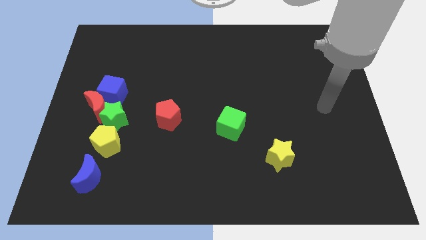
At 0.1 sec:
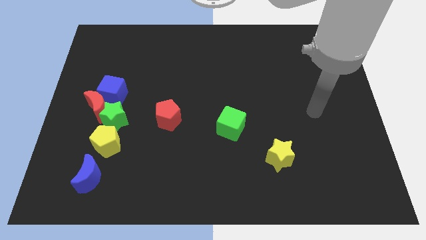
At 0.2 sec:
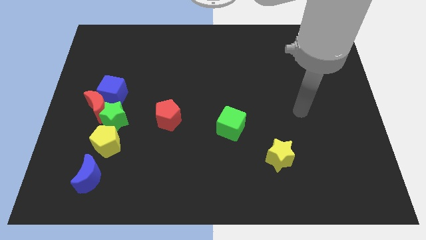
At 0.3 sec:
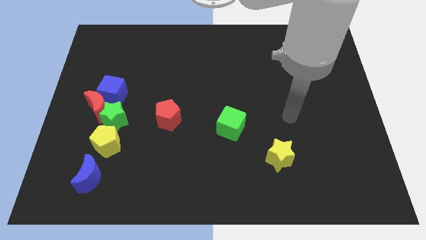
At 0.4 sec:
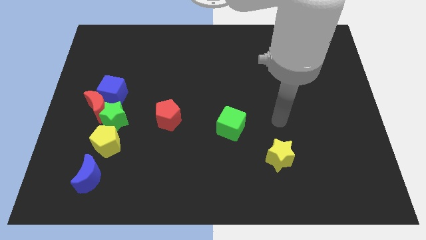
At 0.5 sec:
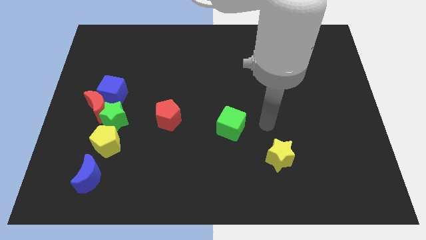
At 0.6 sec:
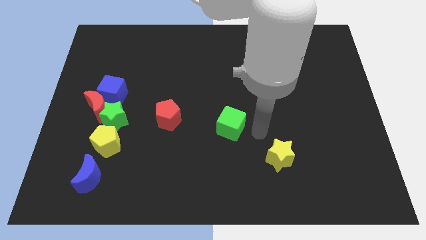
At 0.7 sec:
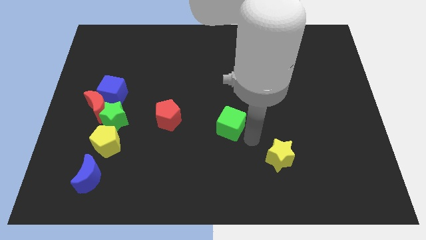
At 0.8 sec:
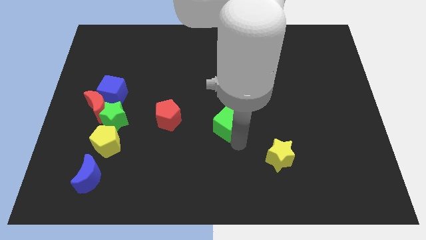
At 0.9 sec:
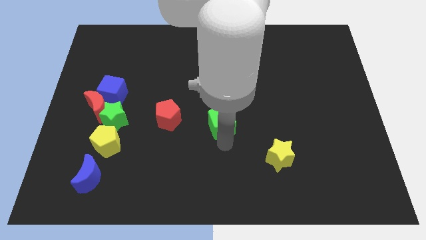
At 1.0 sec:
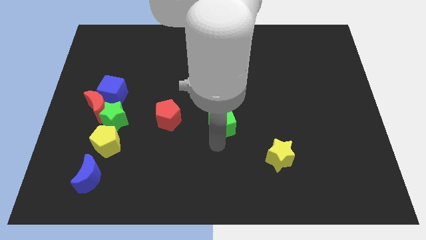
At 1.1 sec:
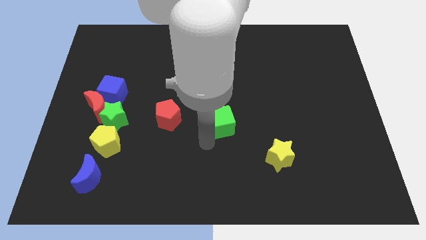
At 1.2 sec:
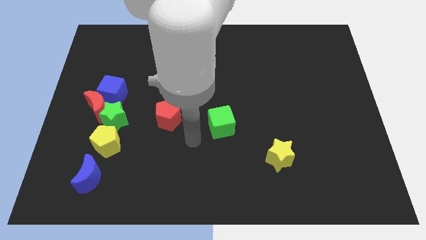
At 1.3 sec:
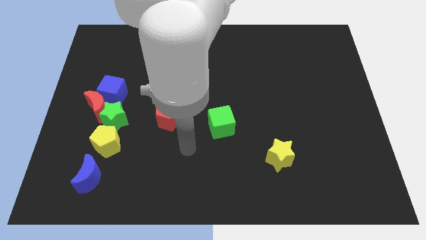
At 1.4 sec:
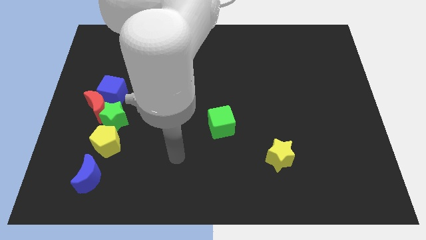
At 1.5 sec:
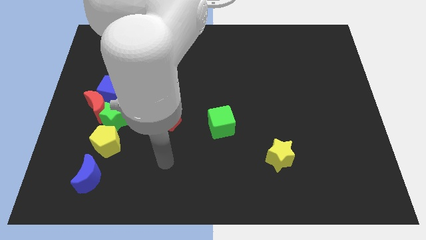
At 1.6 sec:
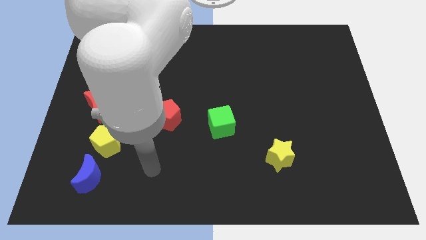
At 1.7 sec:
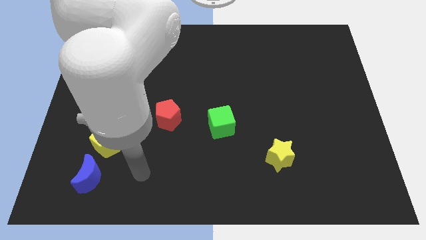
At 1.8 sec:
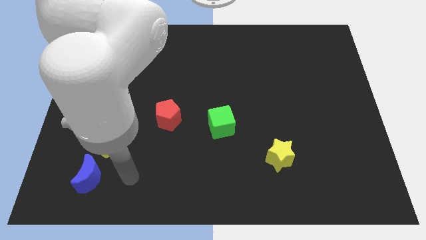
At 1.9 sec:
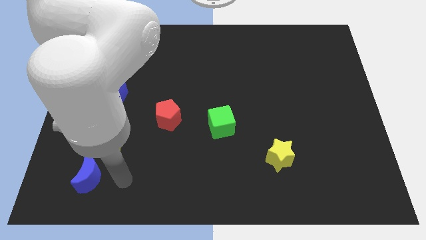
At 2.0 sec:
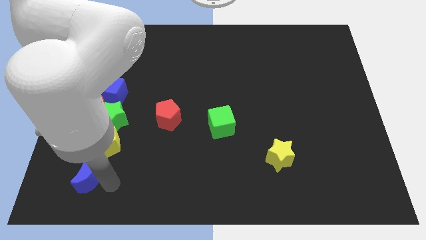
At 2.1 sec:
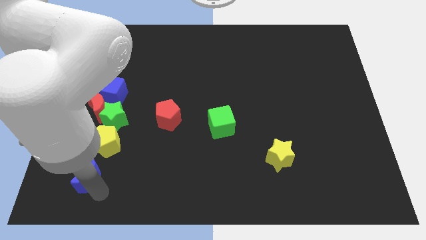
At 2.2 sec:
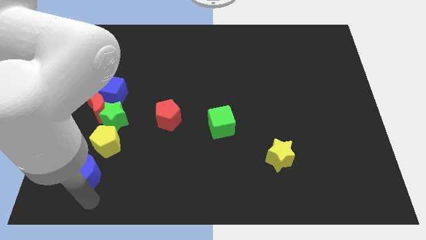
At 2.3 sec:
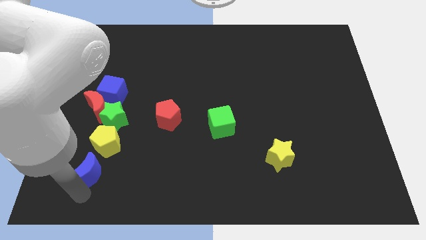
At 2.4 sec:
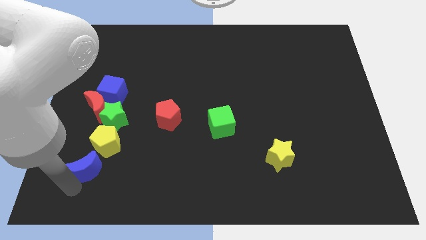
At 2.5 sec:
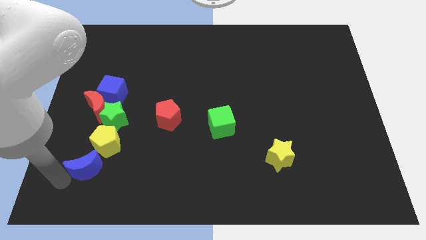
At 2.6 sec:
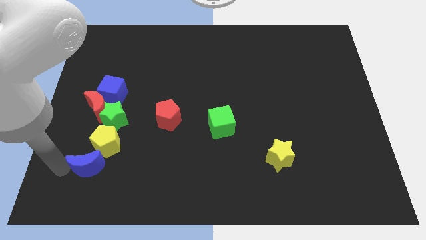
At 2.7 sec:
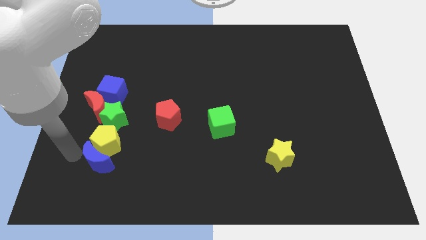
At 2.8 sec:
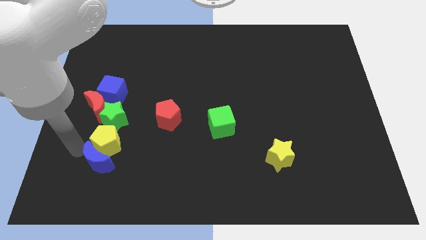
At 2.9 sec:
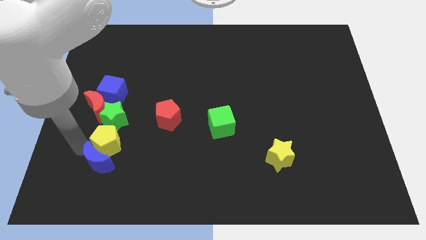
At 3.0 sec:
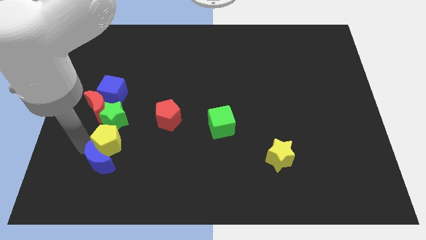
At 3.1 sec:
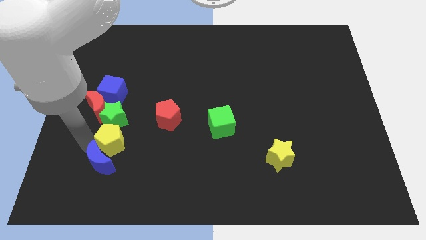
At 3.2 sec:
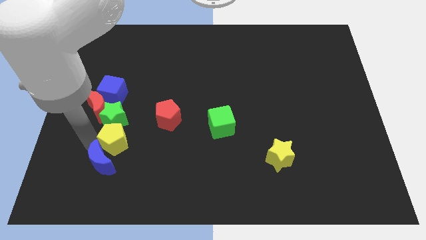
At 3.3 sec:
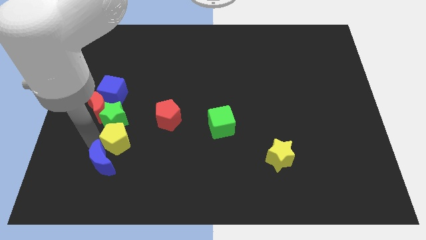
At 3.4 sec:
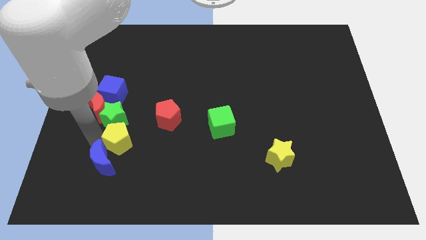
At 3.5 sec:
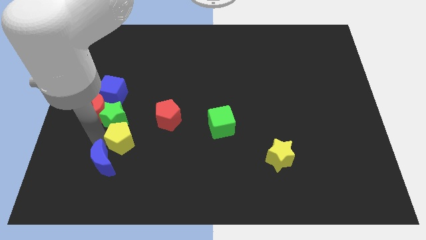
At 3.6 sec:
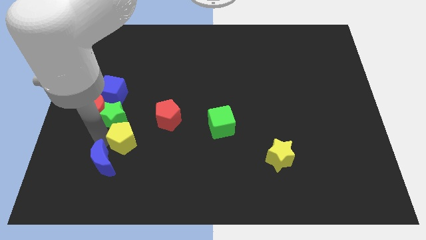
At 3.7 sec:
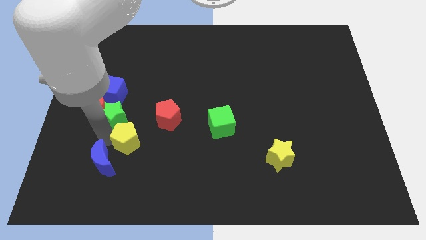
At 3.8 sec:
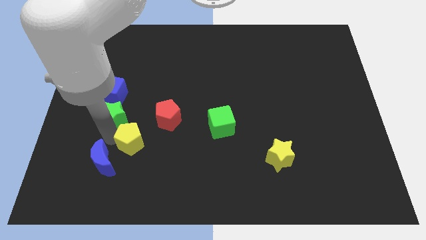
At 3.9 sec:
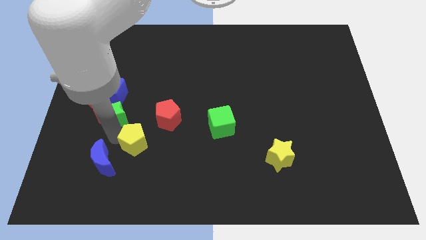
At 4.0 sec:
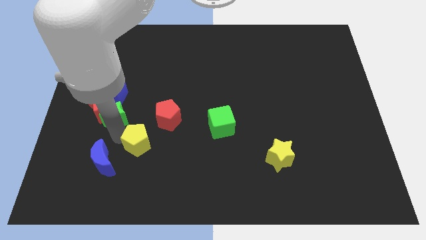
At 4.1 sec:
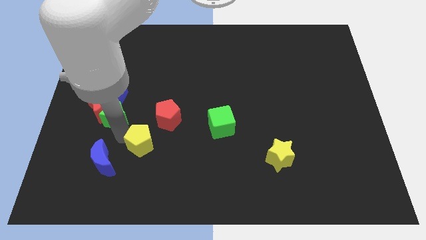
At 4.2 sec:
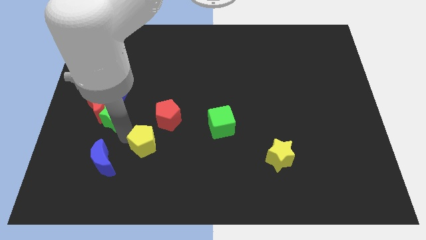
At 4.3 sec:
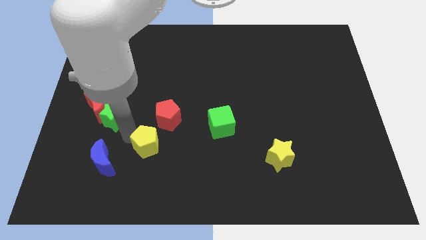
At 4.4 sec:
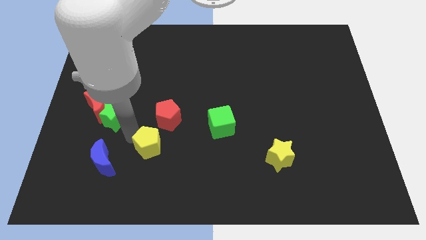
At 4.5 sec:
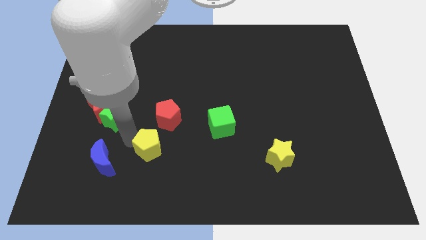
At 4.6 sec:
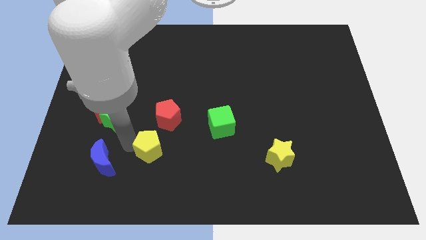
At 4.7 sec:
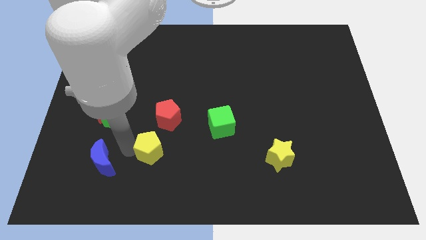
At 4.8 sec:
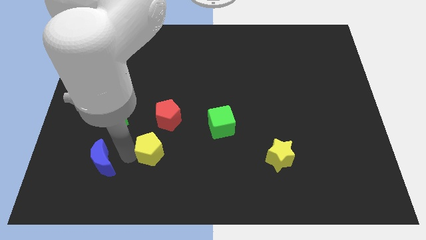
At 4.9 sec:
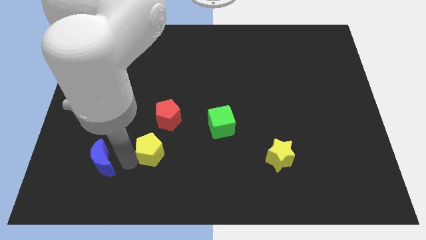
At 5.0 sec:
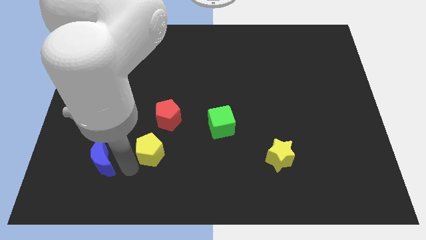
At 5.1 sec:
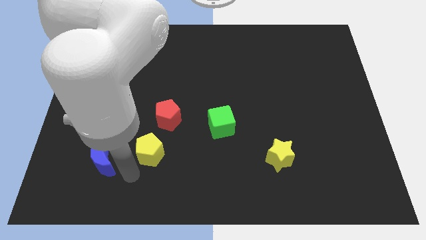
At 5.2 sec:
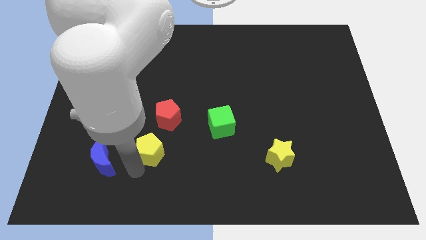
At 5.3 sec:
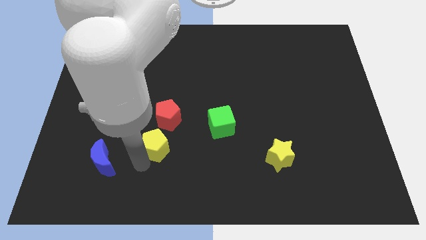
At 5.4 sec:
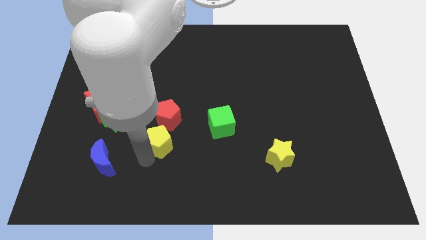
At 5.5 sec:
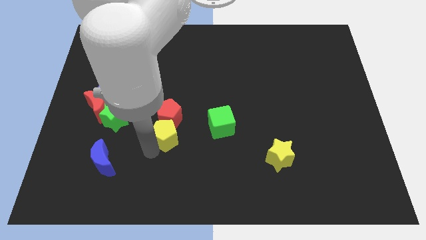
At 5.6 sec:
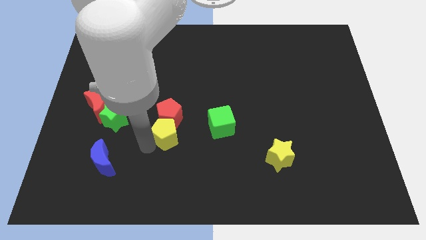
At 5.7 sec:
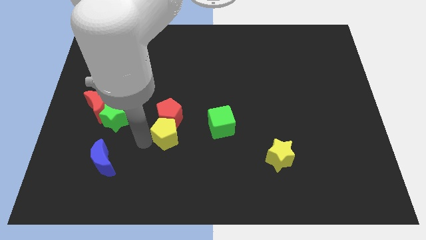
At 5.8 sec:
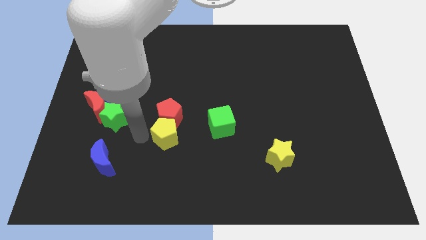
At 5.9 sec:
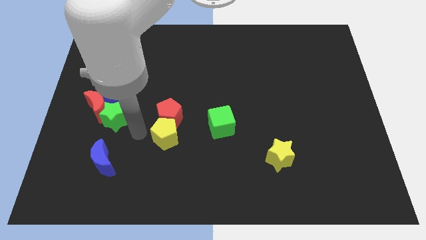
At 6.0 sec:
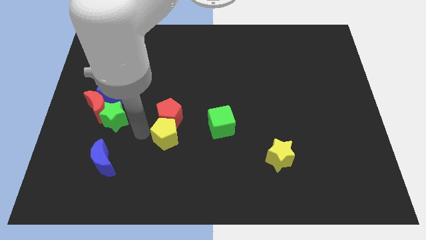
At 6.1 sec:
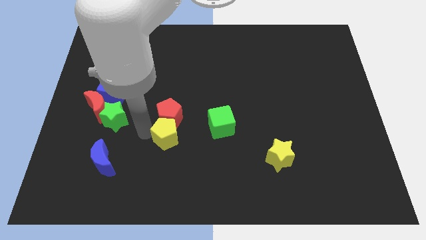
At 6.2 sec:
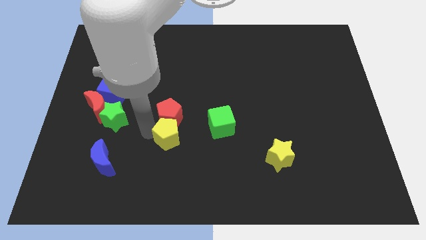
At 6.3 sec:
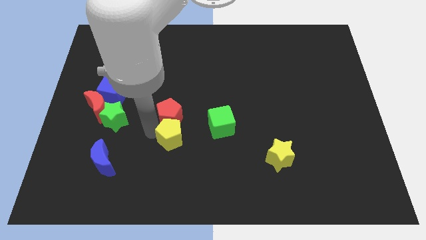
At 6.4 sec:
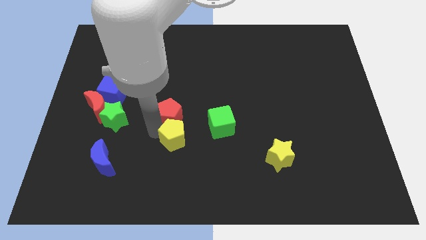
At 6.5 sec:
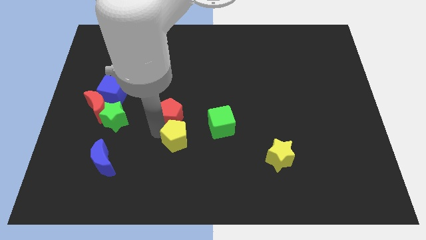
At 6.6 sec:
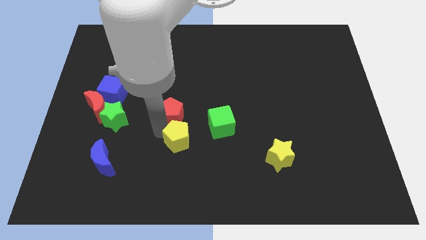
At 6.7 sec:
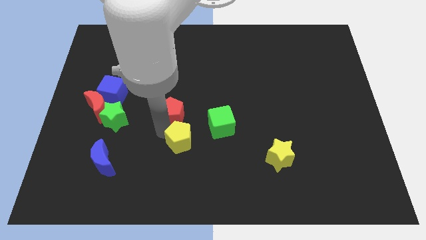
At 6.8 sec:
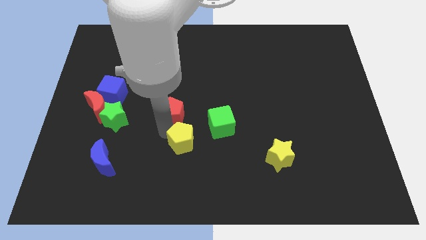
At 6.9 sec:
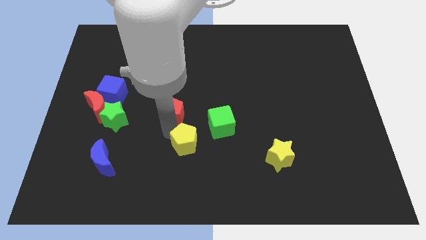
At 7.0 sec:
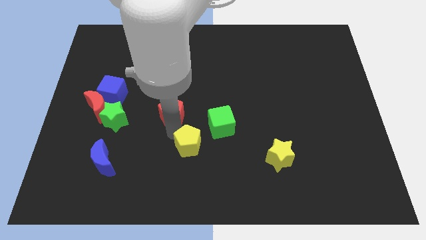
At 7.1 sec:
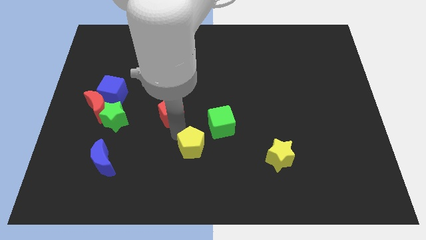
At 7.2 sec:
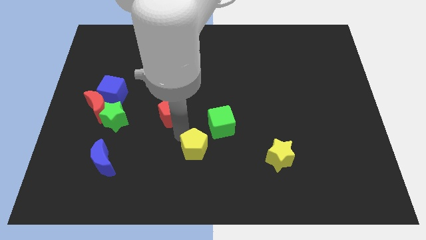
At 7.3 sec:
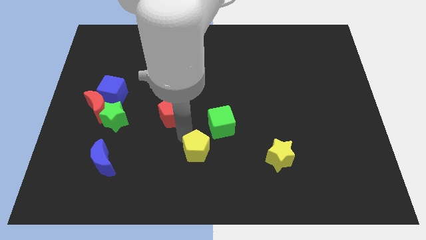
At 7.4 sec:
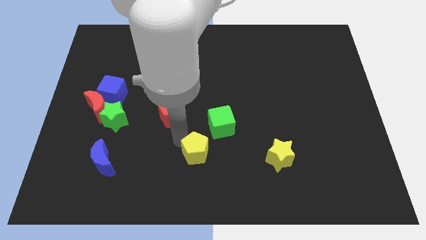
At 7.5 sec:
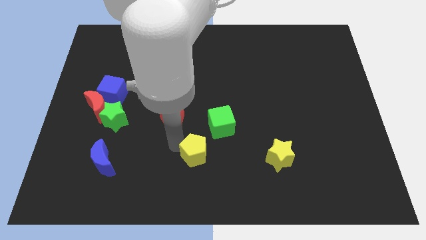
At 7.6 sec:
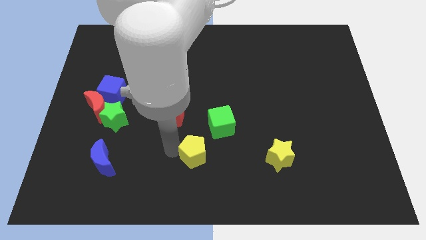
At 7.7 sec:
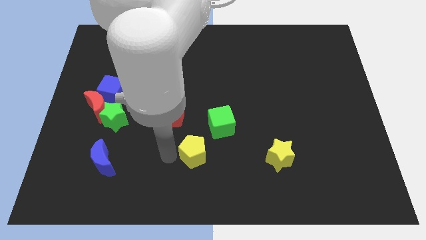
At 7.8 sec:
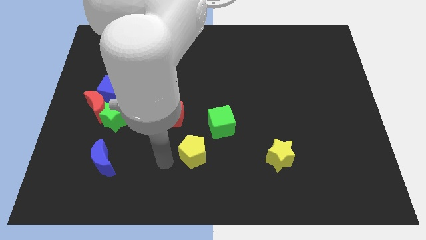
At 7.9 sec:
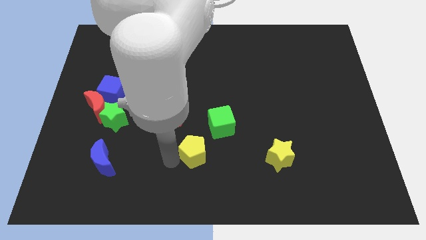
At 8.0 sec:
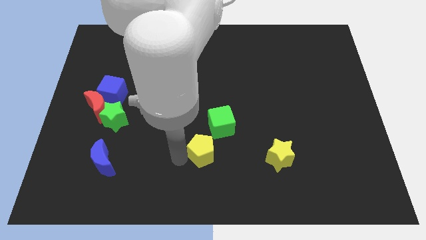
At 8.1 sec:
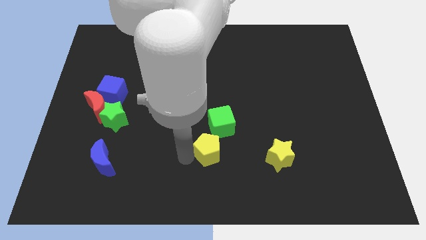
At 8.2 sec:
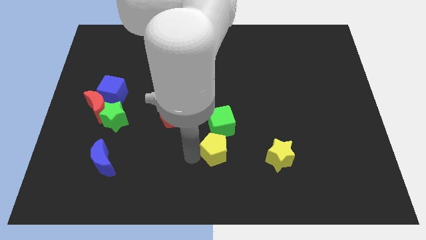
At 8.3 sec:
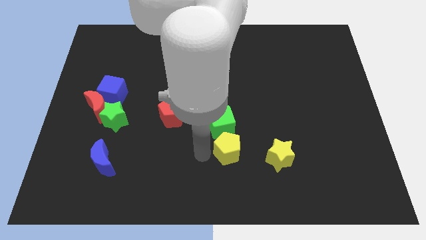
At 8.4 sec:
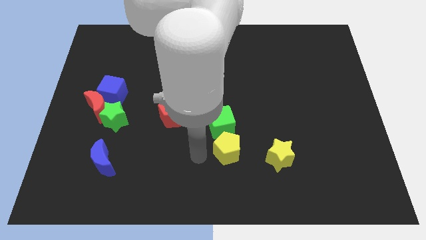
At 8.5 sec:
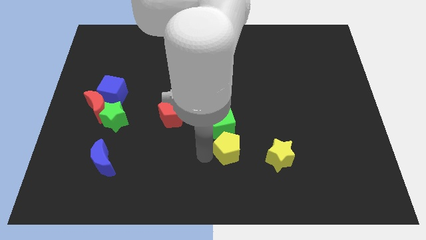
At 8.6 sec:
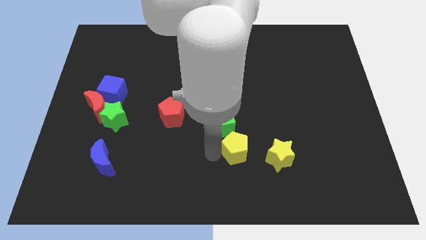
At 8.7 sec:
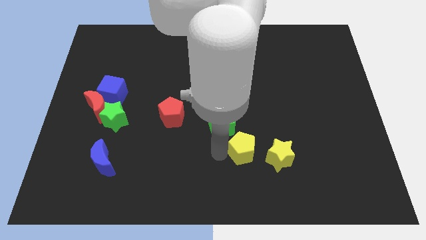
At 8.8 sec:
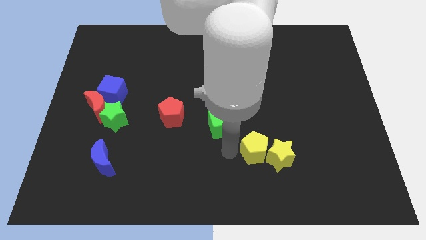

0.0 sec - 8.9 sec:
slide the yellow pentagon towards the yellow star
